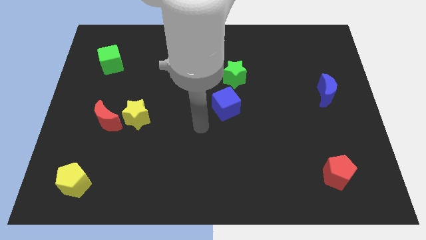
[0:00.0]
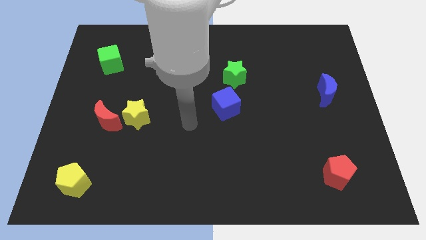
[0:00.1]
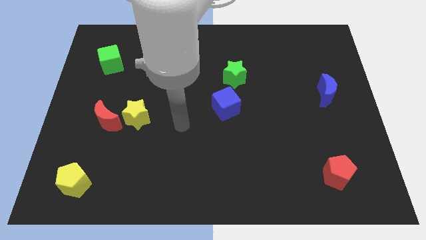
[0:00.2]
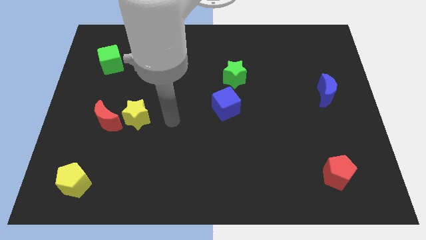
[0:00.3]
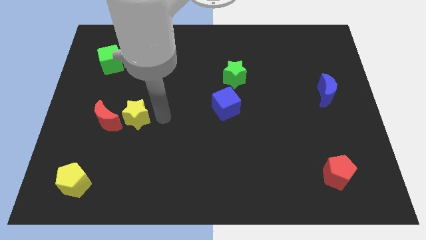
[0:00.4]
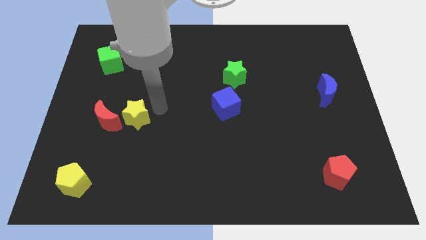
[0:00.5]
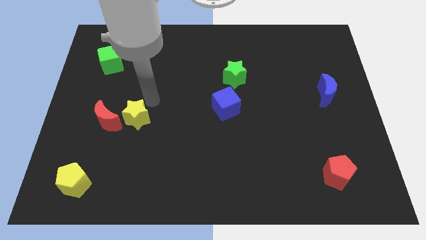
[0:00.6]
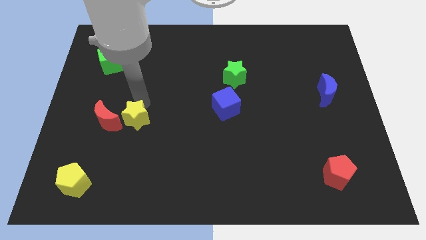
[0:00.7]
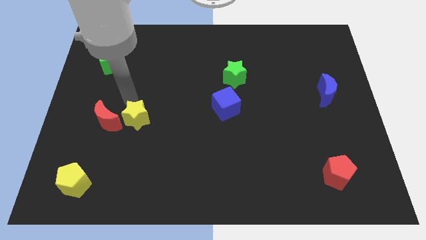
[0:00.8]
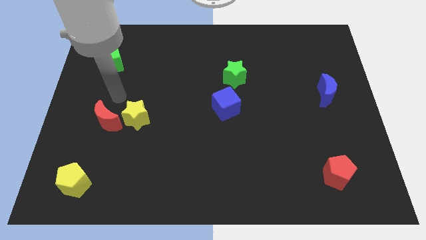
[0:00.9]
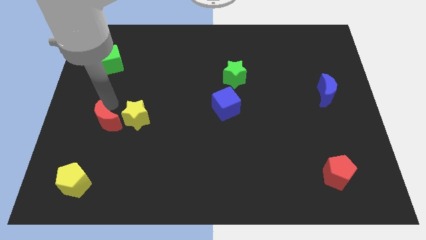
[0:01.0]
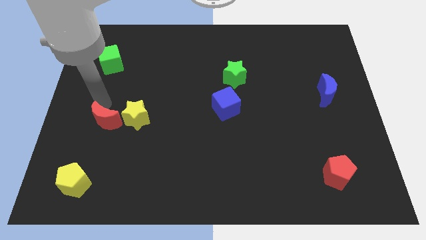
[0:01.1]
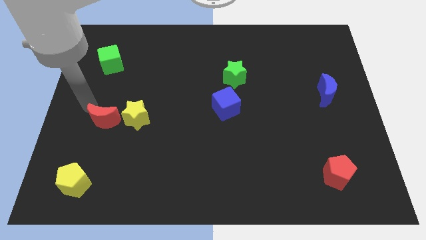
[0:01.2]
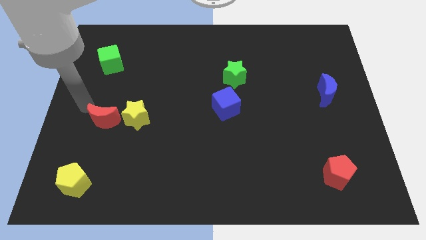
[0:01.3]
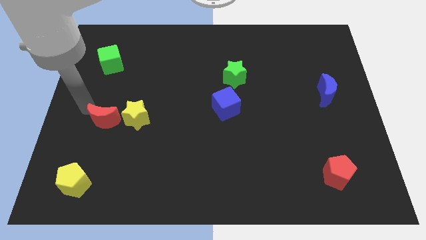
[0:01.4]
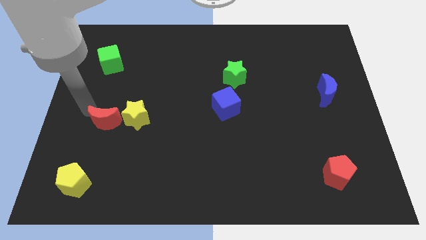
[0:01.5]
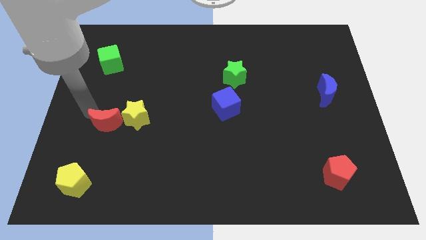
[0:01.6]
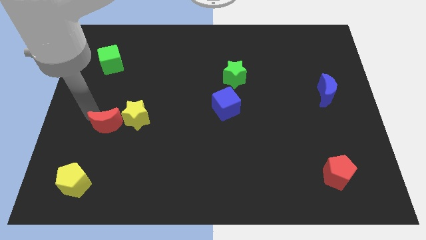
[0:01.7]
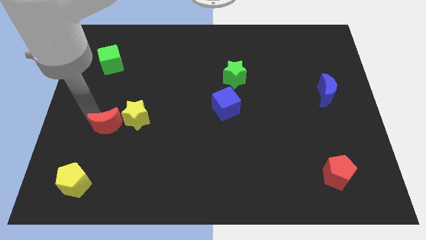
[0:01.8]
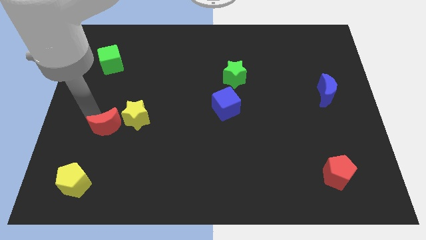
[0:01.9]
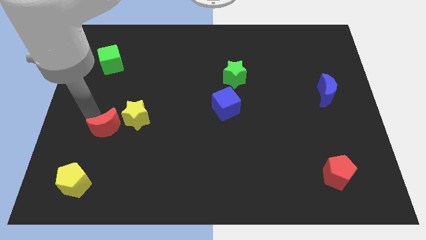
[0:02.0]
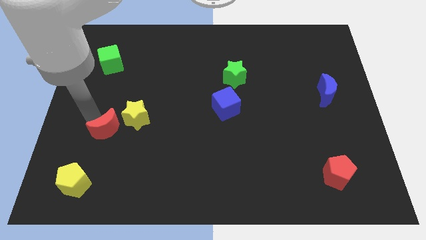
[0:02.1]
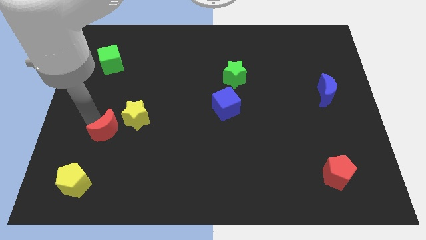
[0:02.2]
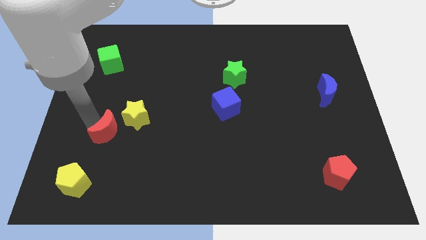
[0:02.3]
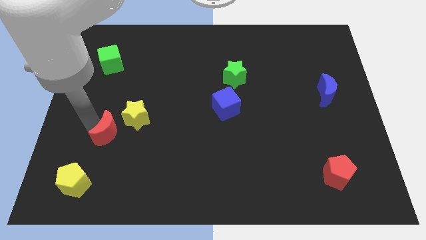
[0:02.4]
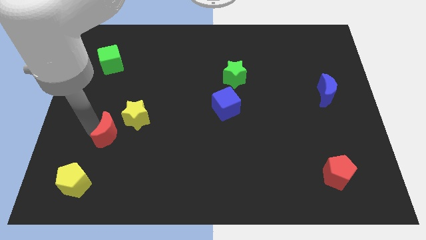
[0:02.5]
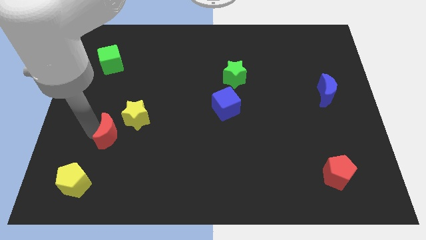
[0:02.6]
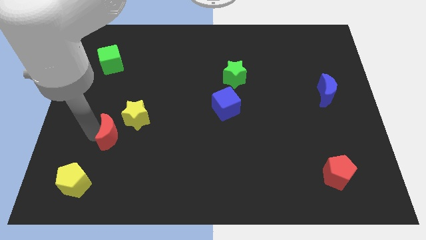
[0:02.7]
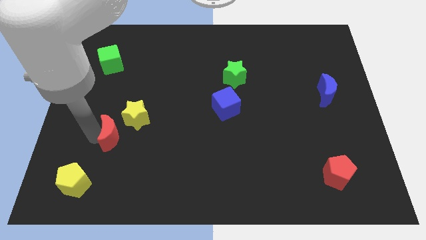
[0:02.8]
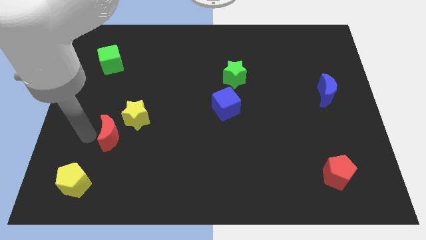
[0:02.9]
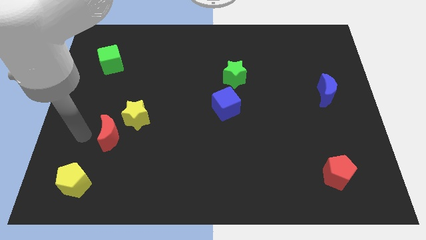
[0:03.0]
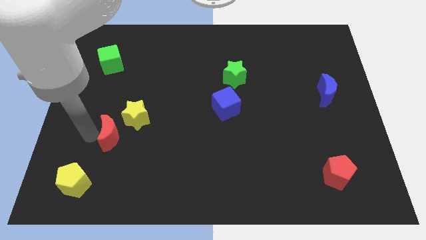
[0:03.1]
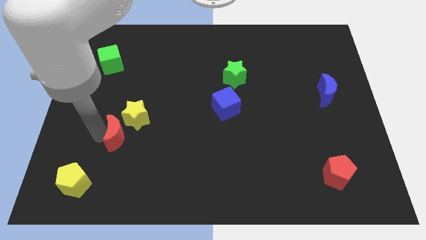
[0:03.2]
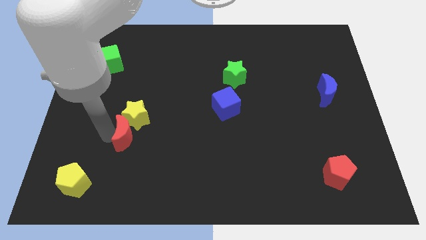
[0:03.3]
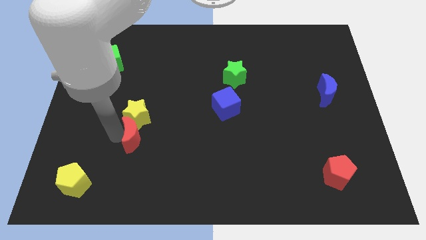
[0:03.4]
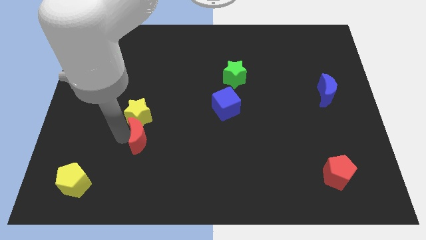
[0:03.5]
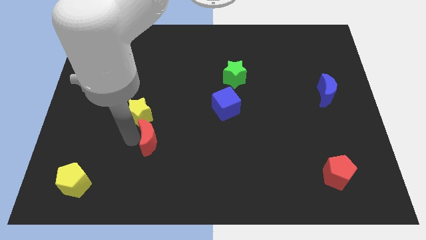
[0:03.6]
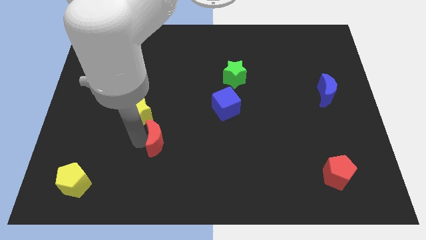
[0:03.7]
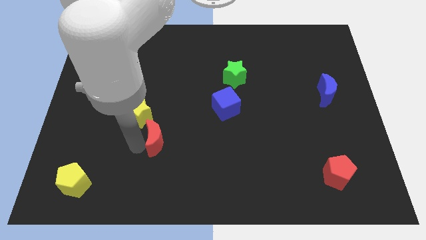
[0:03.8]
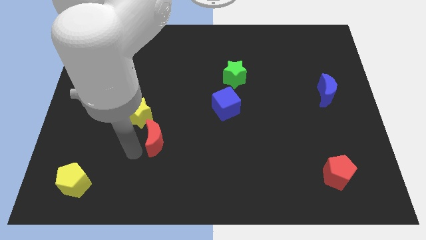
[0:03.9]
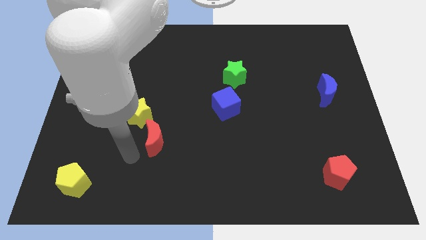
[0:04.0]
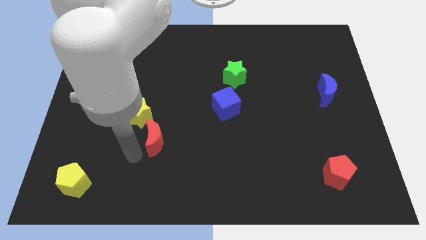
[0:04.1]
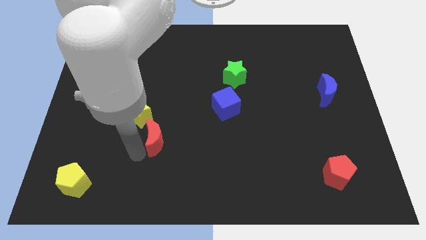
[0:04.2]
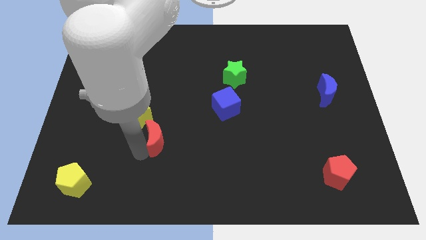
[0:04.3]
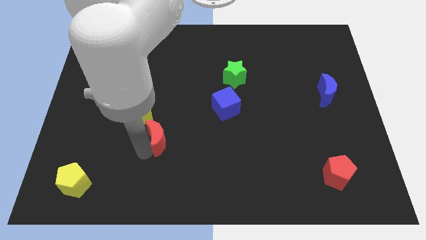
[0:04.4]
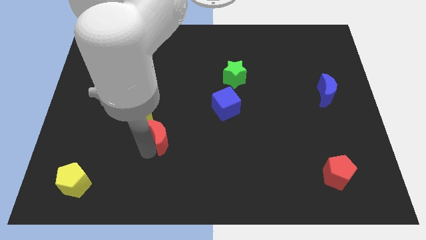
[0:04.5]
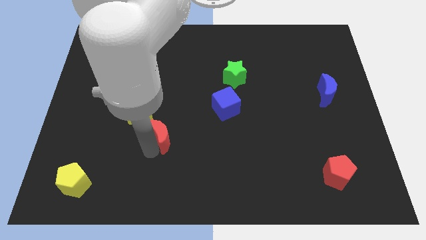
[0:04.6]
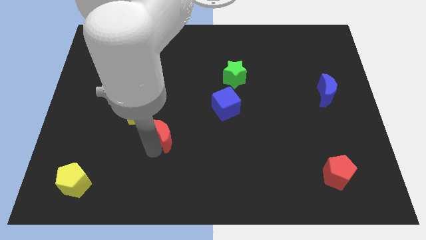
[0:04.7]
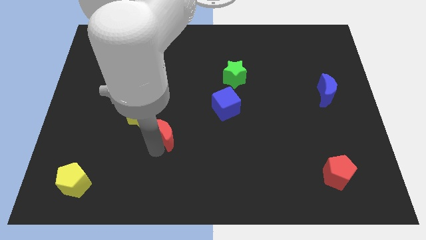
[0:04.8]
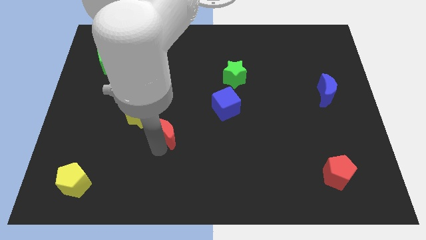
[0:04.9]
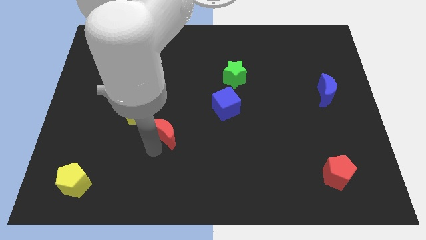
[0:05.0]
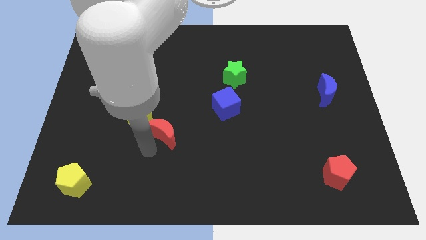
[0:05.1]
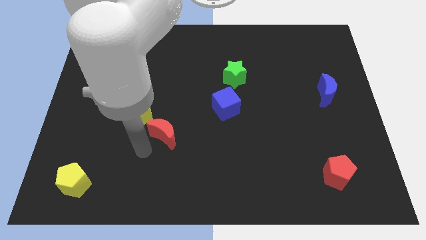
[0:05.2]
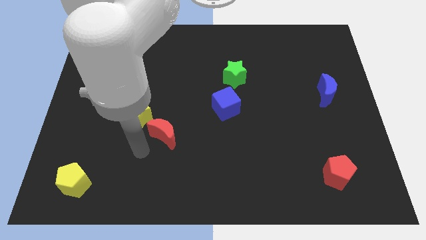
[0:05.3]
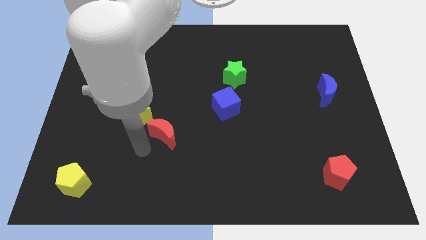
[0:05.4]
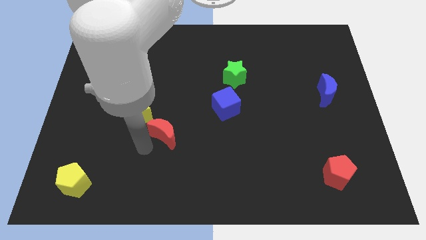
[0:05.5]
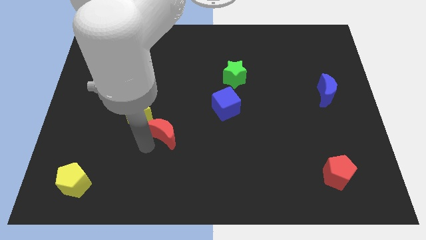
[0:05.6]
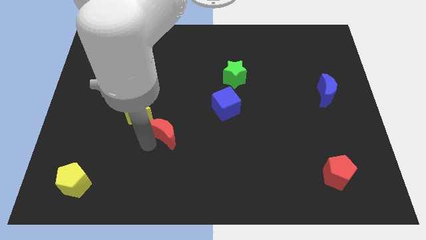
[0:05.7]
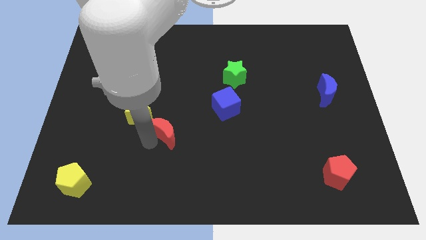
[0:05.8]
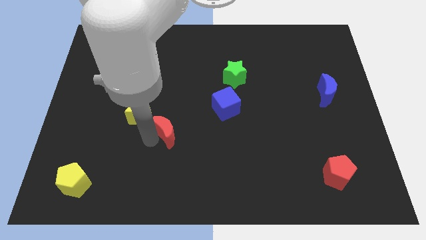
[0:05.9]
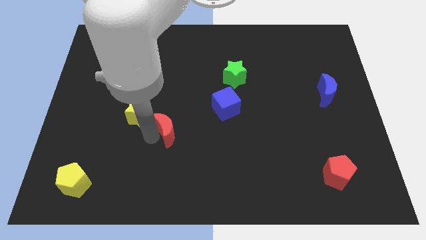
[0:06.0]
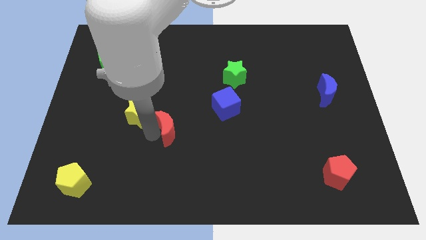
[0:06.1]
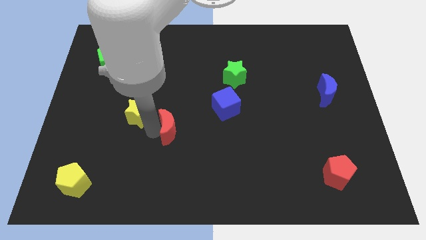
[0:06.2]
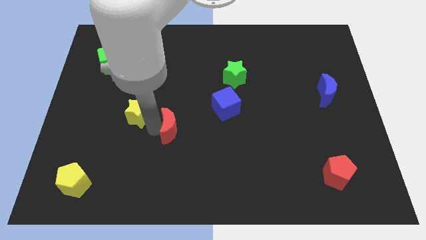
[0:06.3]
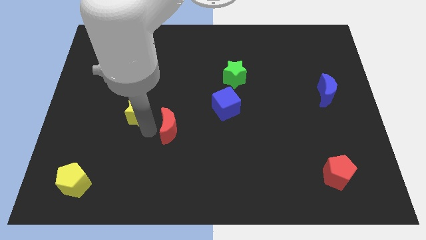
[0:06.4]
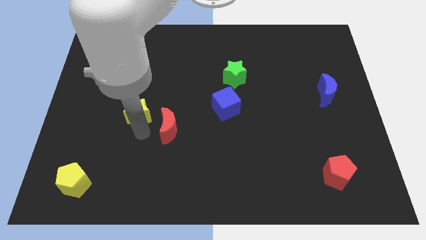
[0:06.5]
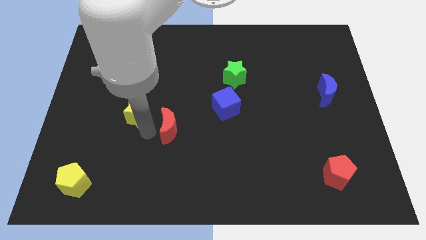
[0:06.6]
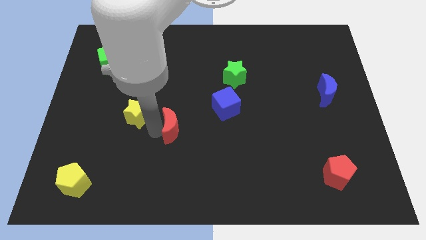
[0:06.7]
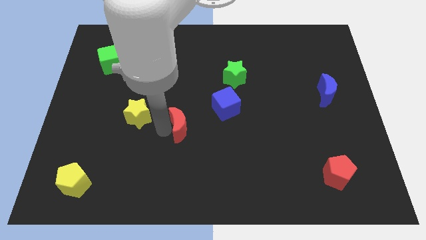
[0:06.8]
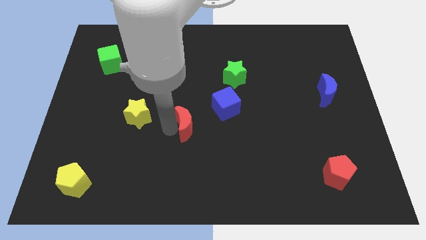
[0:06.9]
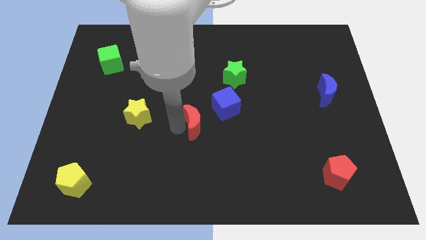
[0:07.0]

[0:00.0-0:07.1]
push the red moon to the right

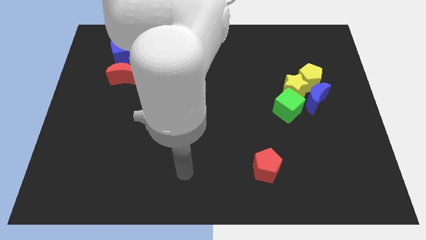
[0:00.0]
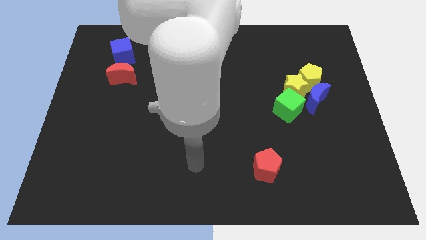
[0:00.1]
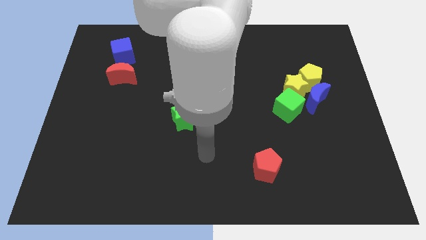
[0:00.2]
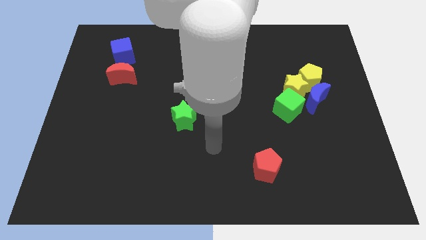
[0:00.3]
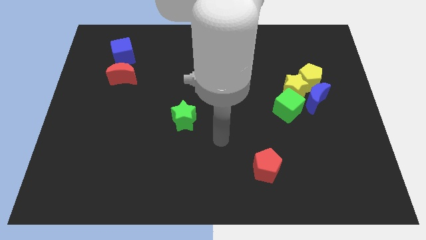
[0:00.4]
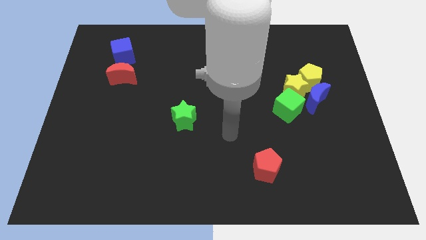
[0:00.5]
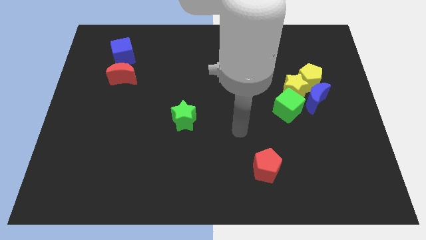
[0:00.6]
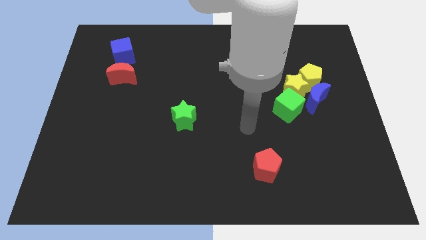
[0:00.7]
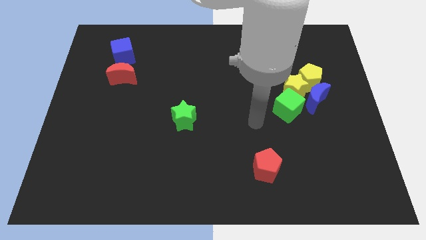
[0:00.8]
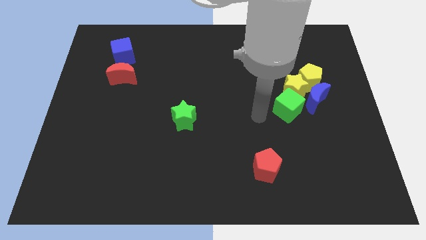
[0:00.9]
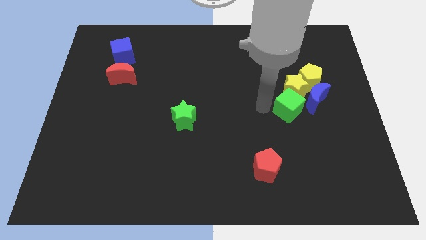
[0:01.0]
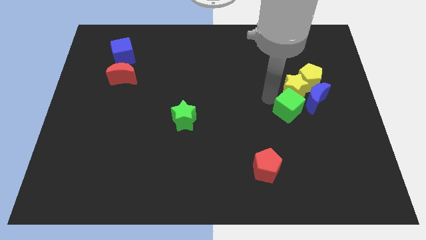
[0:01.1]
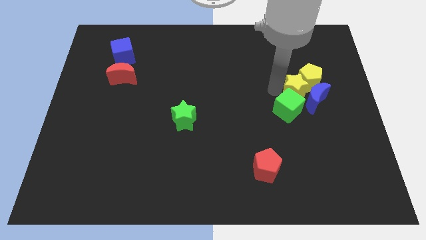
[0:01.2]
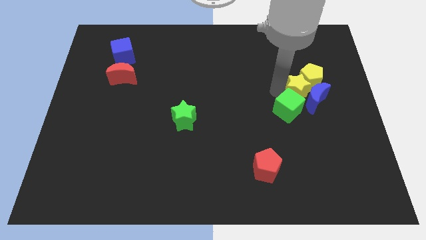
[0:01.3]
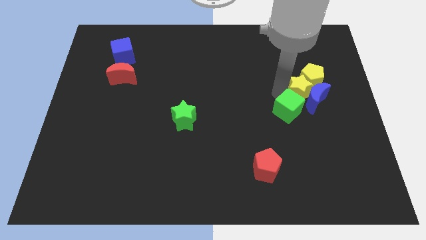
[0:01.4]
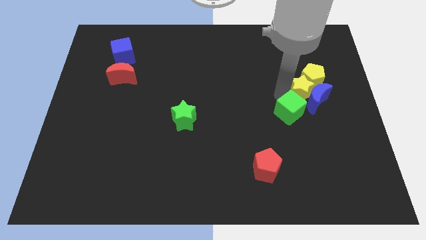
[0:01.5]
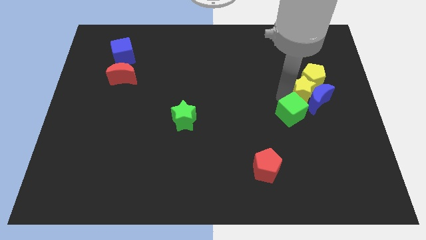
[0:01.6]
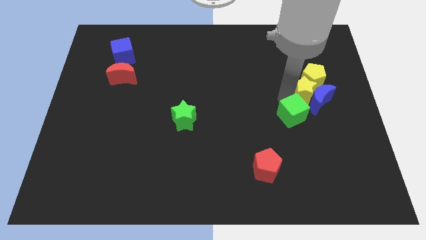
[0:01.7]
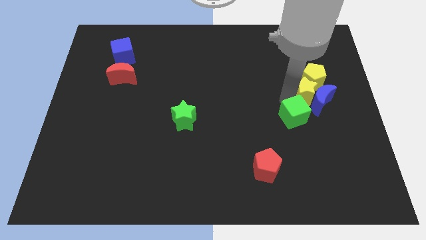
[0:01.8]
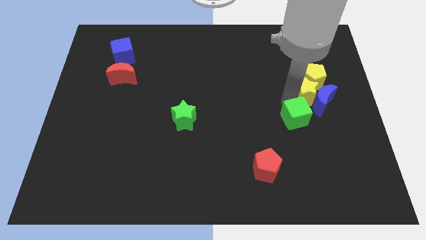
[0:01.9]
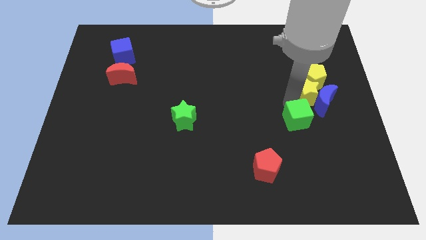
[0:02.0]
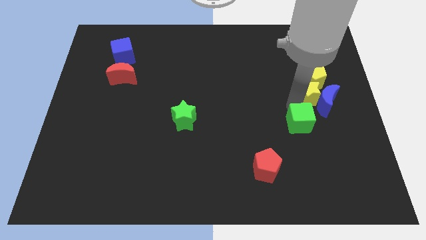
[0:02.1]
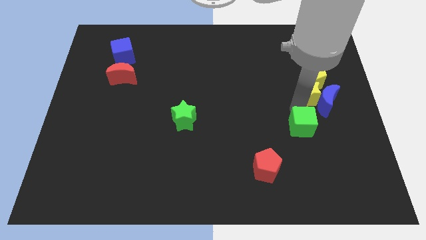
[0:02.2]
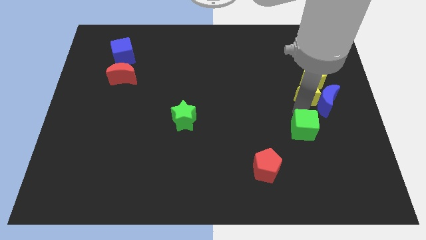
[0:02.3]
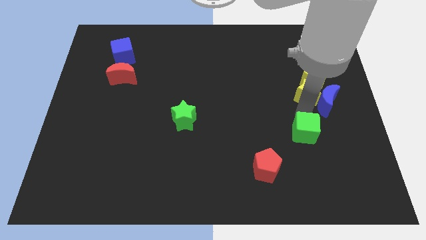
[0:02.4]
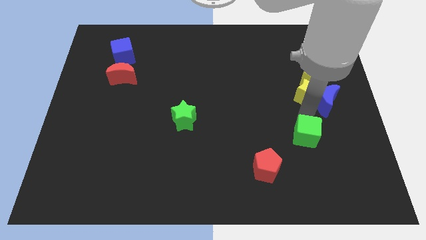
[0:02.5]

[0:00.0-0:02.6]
slide the green cube downwards a bit
